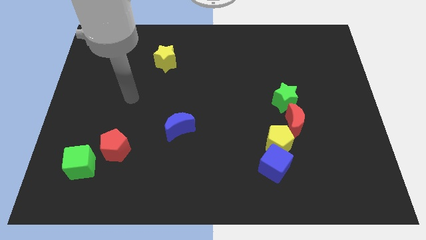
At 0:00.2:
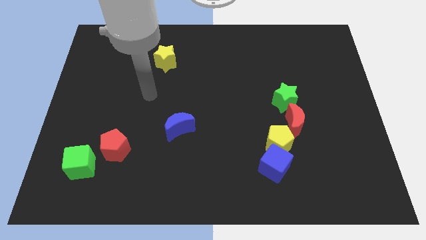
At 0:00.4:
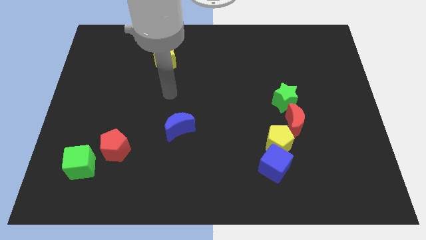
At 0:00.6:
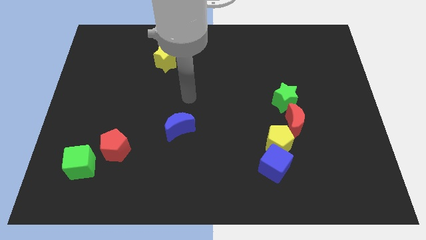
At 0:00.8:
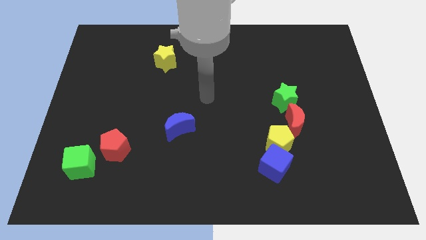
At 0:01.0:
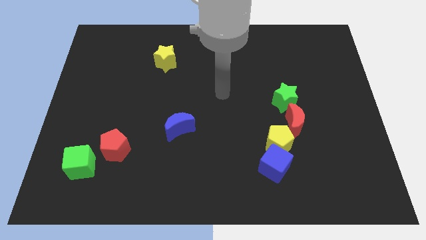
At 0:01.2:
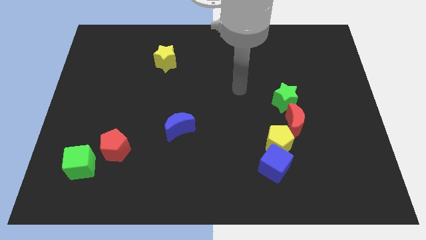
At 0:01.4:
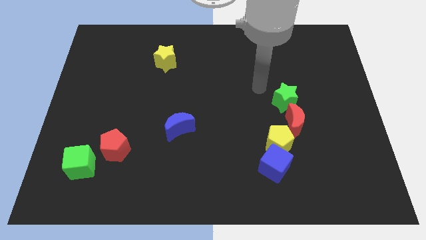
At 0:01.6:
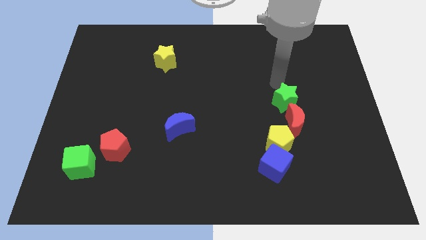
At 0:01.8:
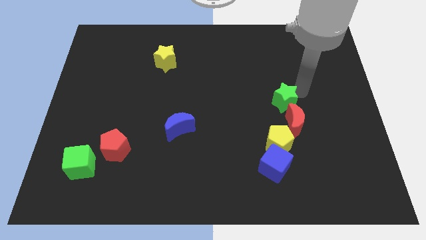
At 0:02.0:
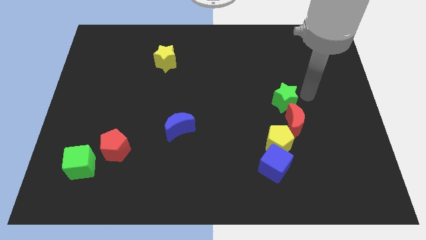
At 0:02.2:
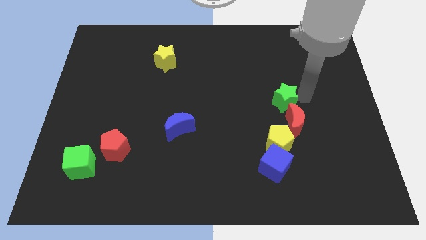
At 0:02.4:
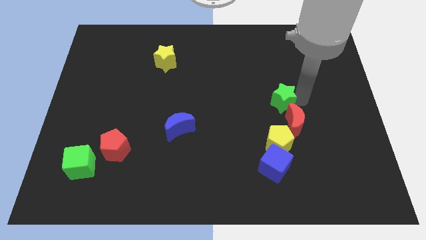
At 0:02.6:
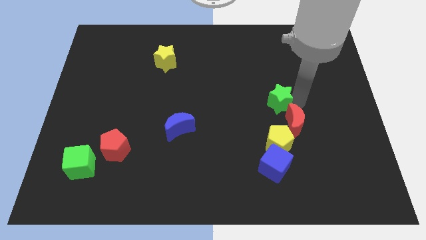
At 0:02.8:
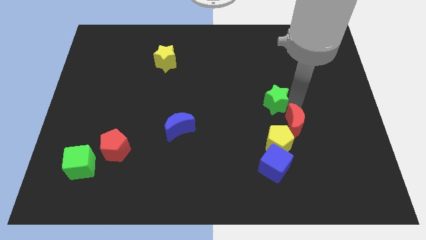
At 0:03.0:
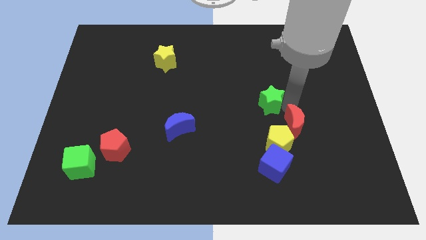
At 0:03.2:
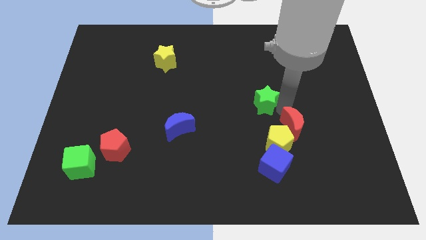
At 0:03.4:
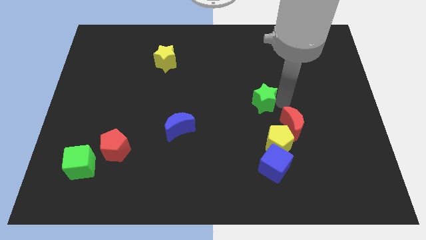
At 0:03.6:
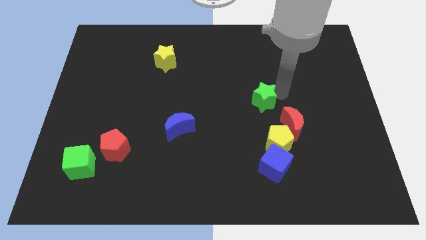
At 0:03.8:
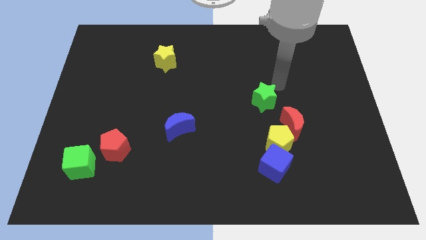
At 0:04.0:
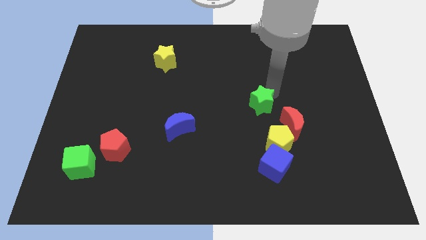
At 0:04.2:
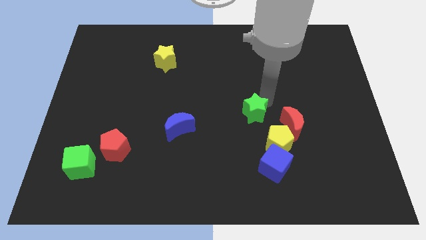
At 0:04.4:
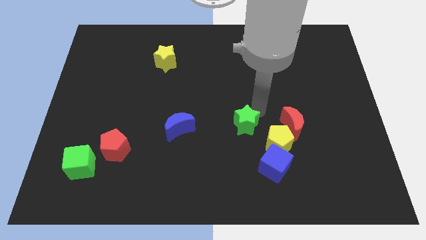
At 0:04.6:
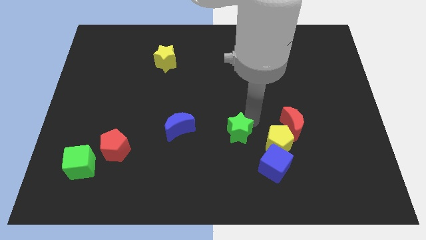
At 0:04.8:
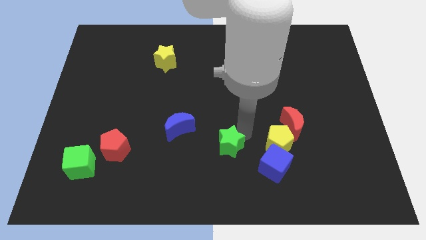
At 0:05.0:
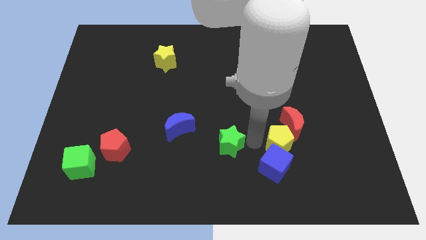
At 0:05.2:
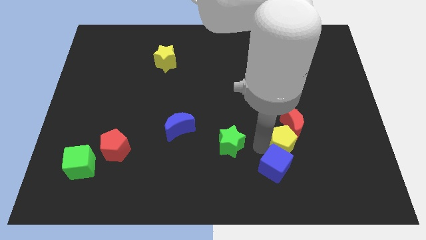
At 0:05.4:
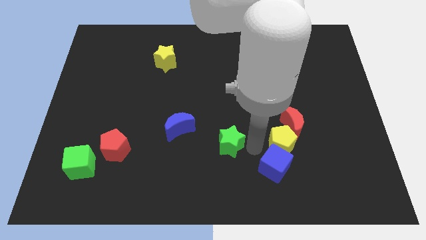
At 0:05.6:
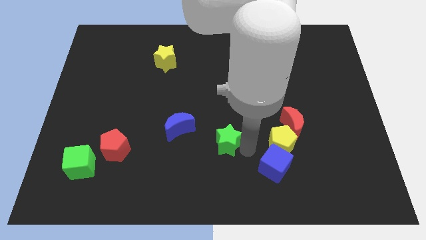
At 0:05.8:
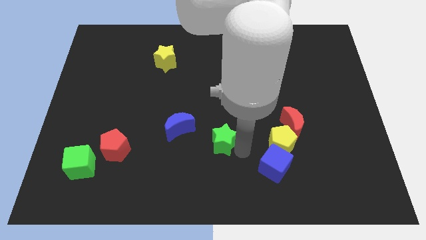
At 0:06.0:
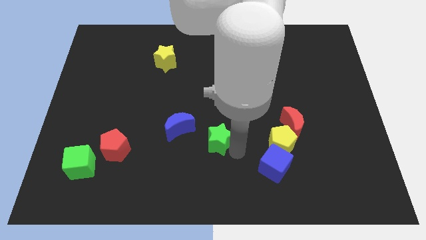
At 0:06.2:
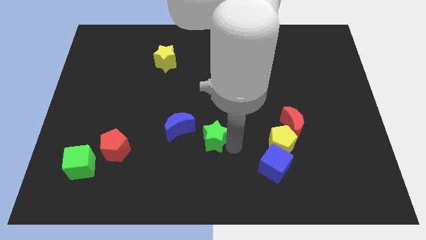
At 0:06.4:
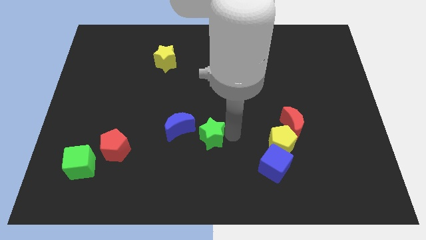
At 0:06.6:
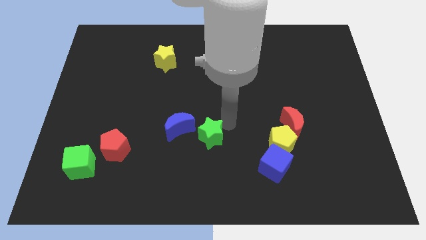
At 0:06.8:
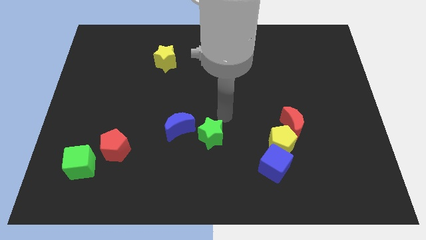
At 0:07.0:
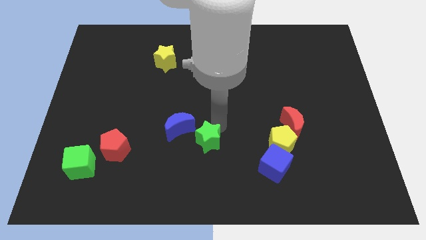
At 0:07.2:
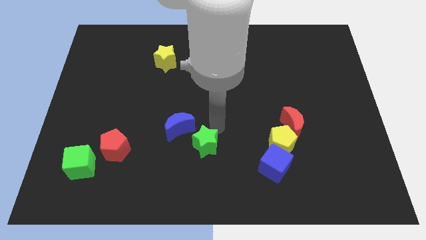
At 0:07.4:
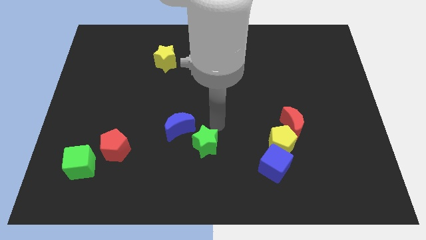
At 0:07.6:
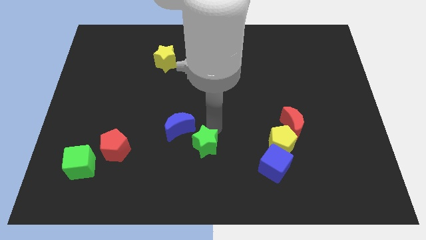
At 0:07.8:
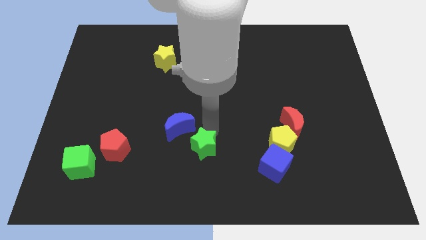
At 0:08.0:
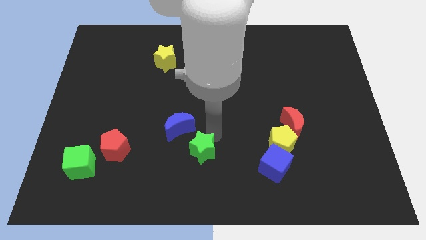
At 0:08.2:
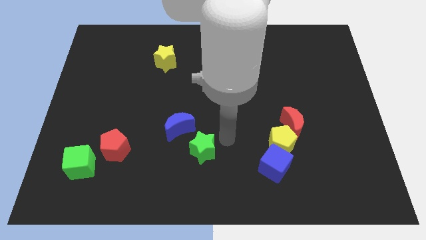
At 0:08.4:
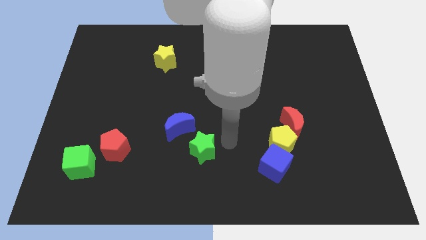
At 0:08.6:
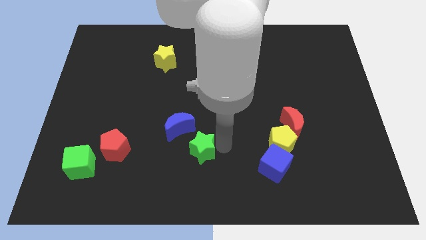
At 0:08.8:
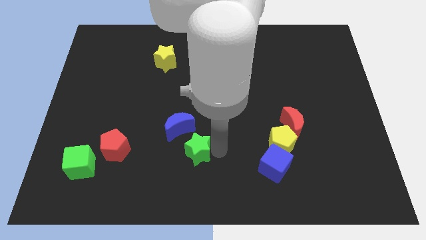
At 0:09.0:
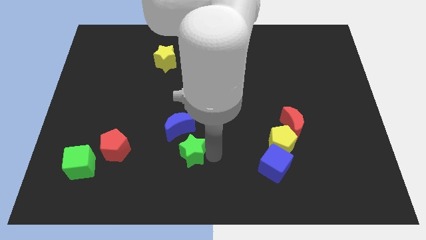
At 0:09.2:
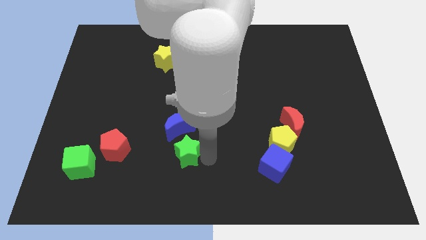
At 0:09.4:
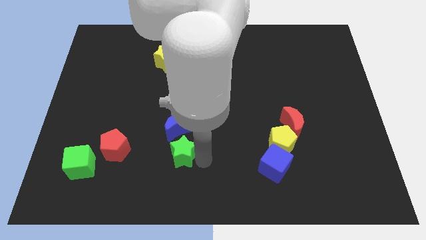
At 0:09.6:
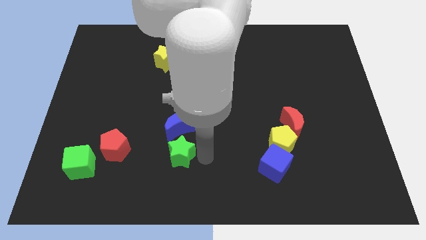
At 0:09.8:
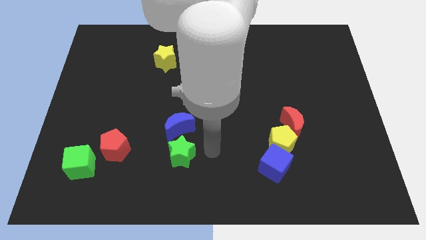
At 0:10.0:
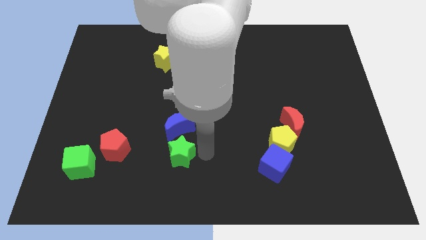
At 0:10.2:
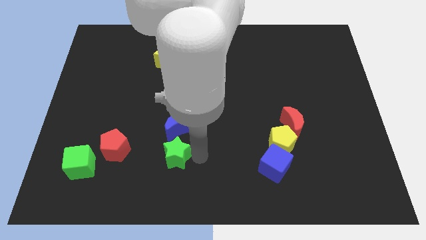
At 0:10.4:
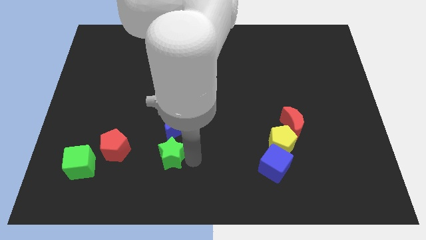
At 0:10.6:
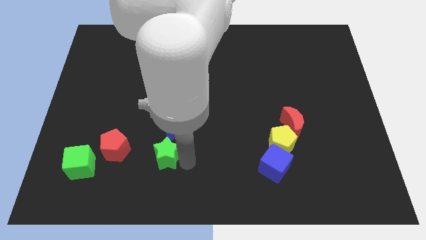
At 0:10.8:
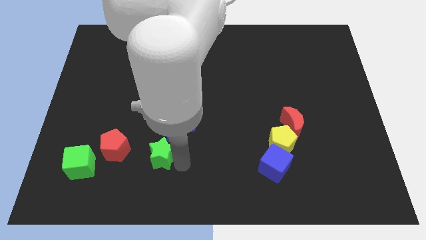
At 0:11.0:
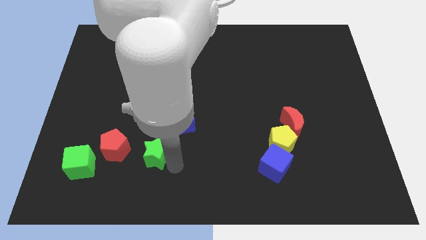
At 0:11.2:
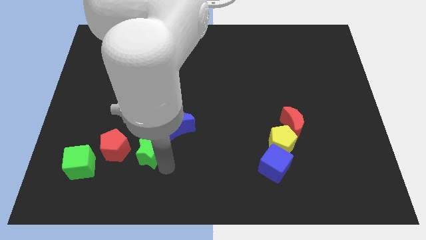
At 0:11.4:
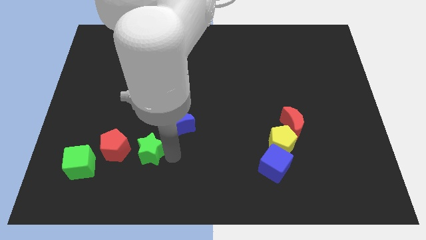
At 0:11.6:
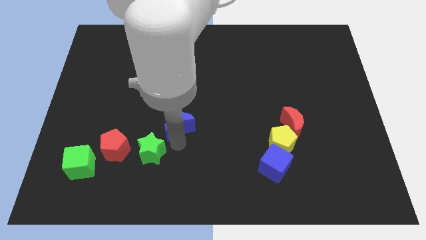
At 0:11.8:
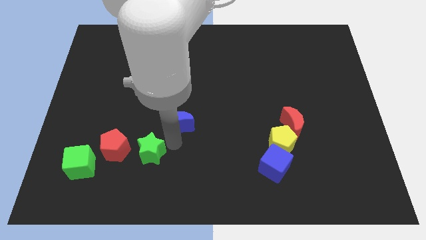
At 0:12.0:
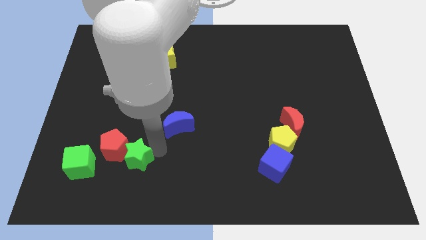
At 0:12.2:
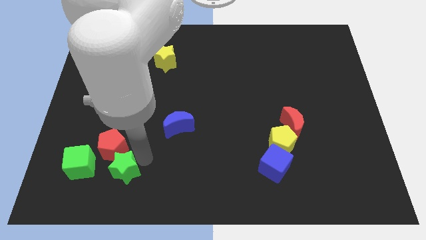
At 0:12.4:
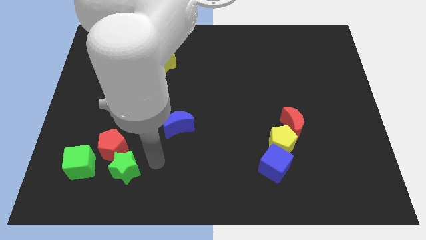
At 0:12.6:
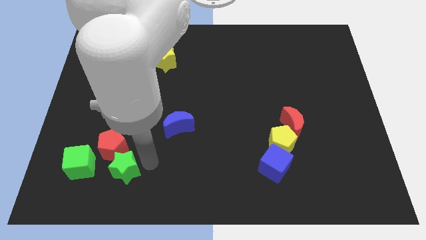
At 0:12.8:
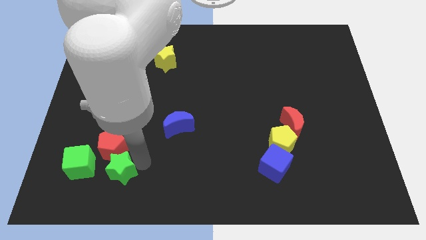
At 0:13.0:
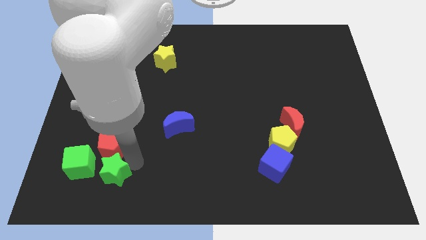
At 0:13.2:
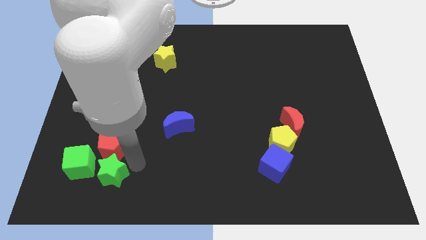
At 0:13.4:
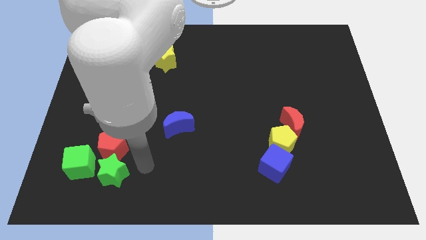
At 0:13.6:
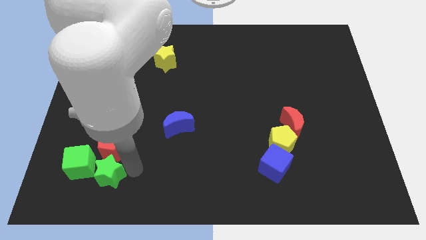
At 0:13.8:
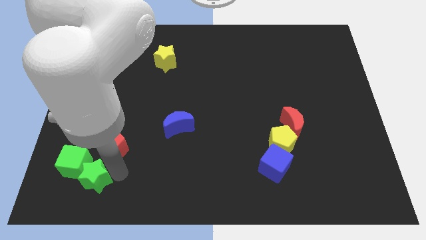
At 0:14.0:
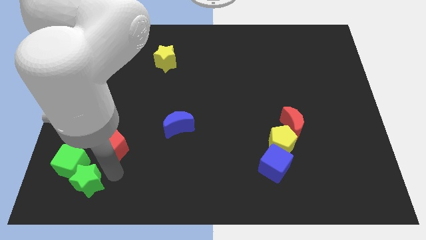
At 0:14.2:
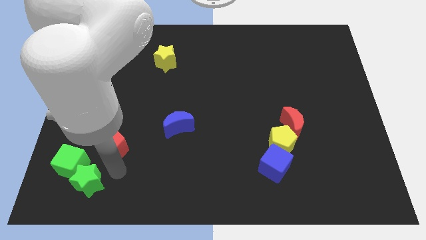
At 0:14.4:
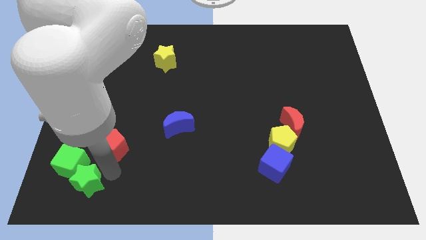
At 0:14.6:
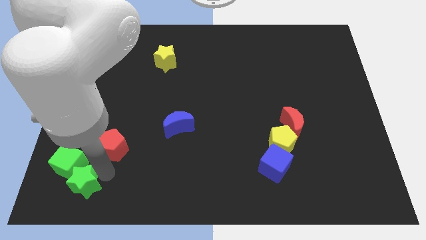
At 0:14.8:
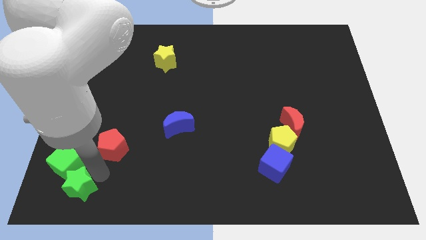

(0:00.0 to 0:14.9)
push the green star to the bottom left

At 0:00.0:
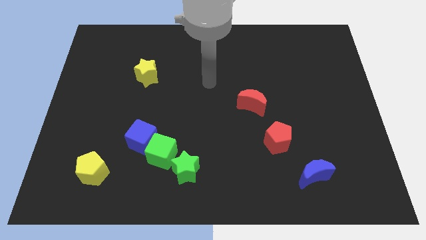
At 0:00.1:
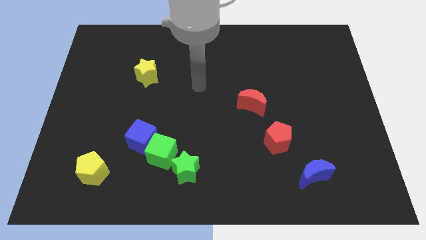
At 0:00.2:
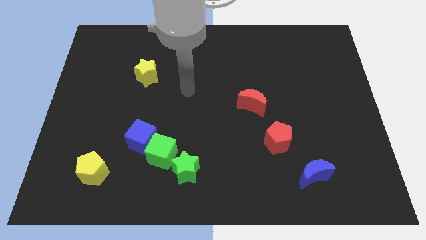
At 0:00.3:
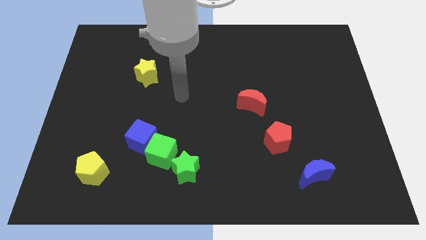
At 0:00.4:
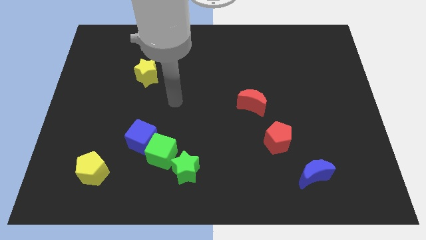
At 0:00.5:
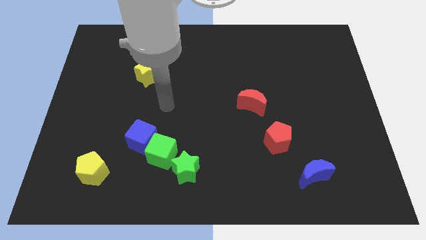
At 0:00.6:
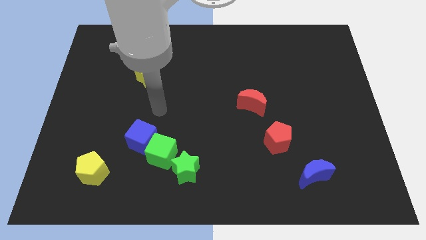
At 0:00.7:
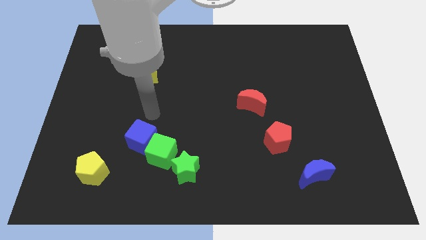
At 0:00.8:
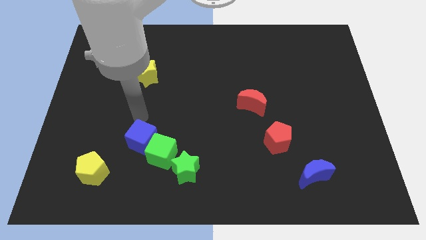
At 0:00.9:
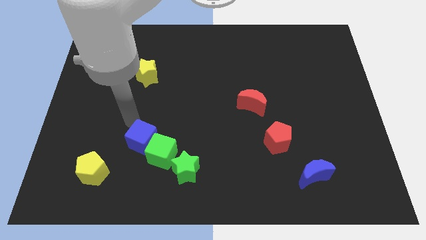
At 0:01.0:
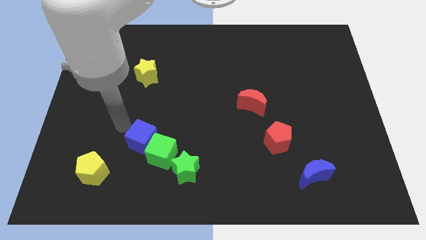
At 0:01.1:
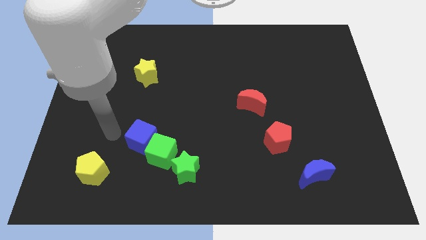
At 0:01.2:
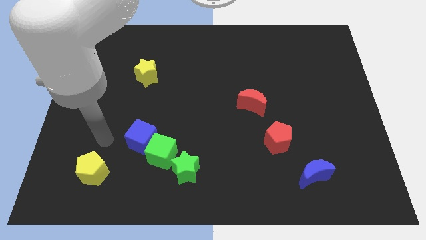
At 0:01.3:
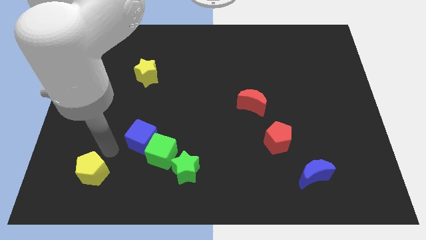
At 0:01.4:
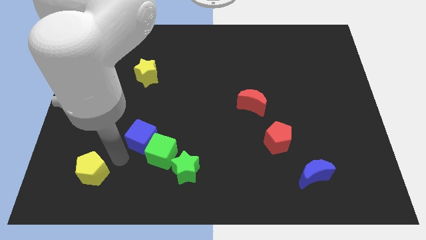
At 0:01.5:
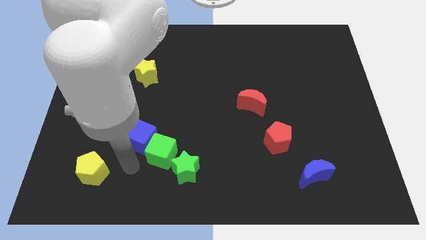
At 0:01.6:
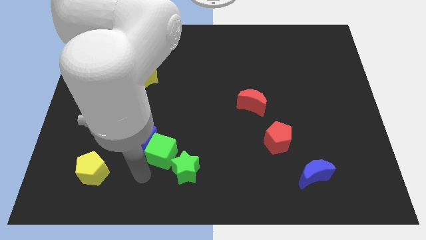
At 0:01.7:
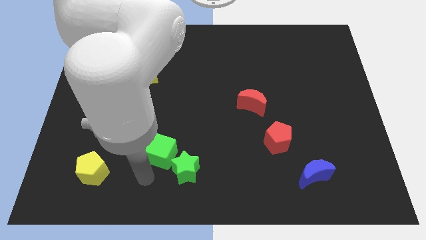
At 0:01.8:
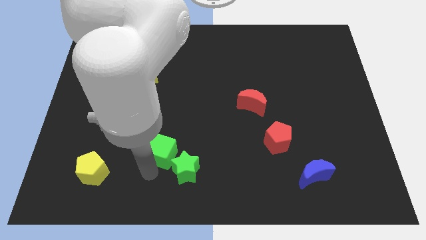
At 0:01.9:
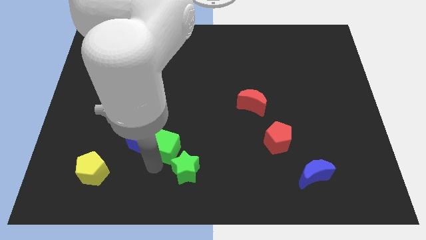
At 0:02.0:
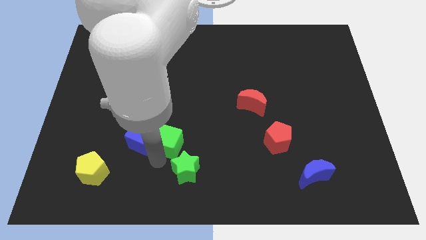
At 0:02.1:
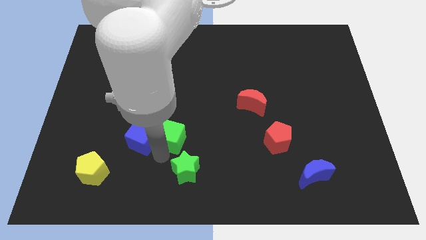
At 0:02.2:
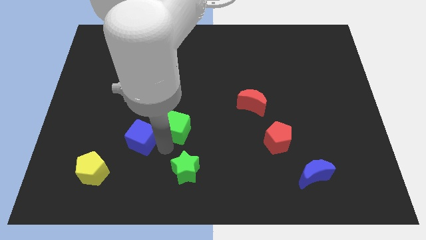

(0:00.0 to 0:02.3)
push the green cube to the middle of the board
